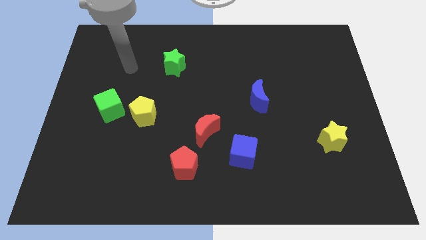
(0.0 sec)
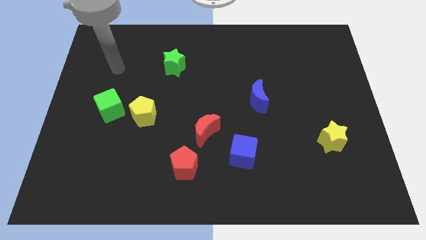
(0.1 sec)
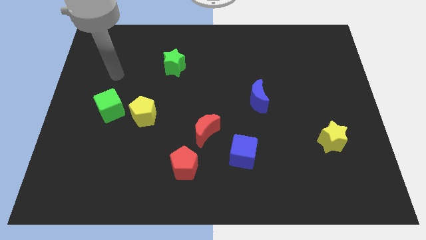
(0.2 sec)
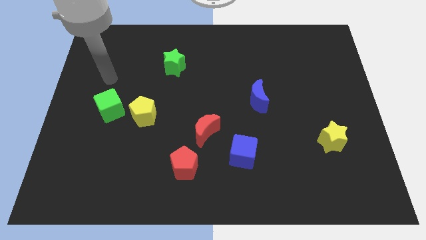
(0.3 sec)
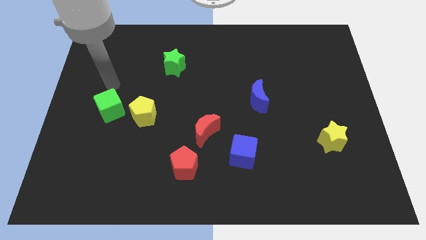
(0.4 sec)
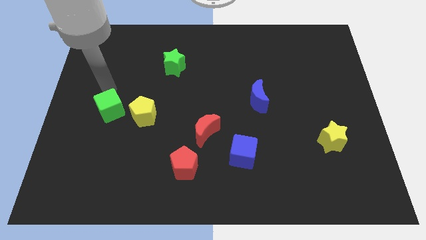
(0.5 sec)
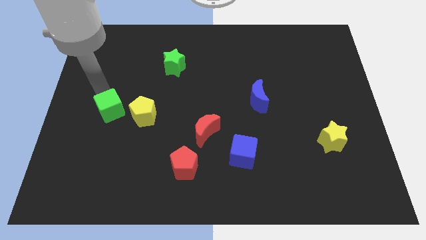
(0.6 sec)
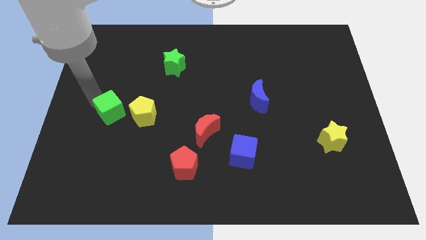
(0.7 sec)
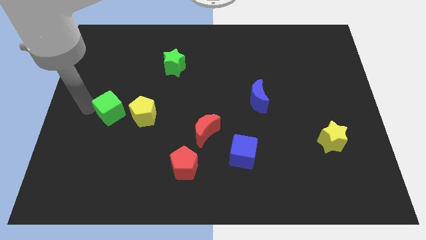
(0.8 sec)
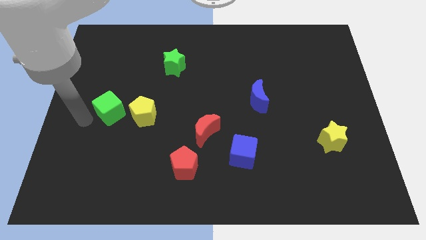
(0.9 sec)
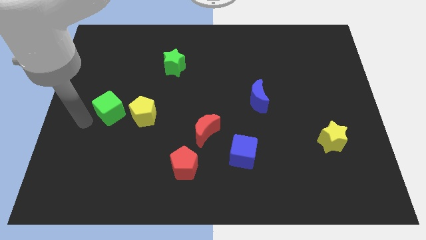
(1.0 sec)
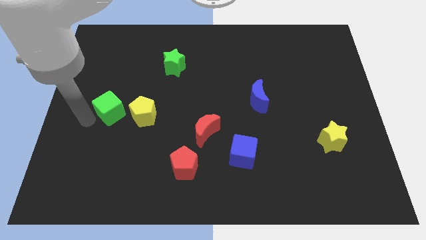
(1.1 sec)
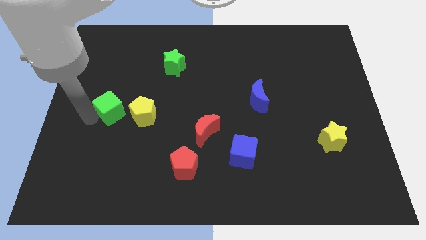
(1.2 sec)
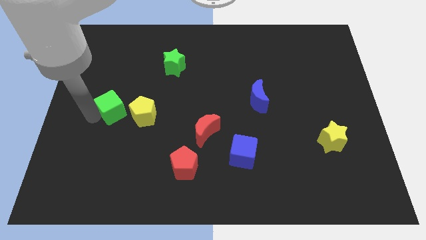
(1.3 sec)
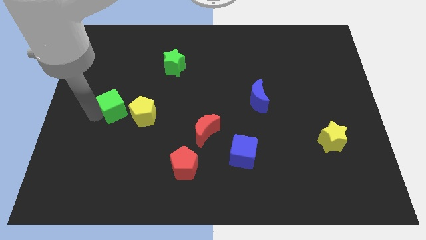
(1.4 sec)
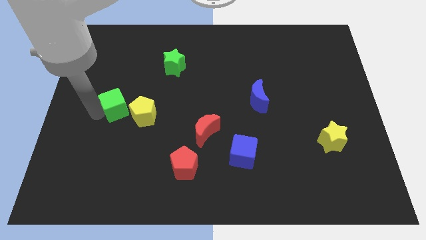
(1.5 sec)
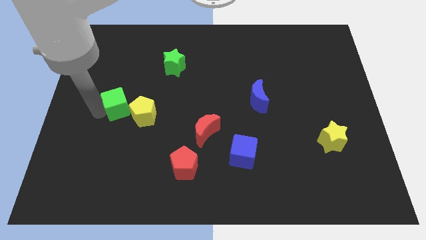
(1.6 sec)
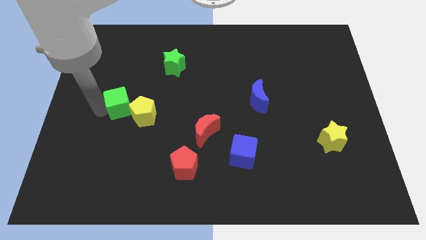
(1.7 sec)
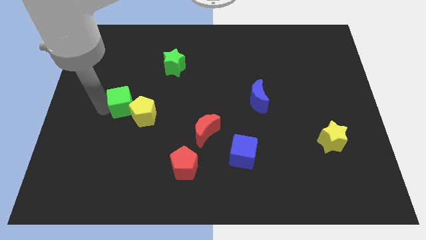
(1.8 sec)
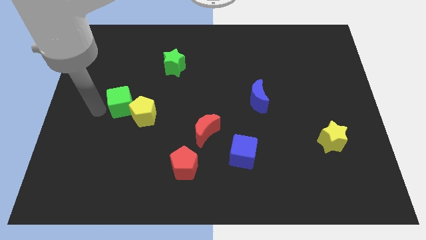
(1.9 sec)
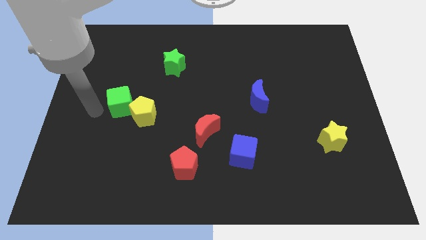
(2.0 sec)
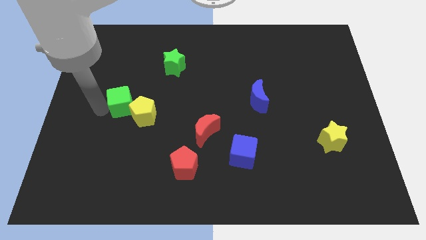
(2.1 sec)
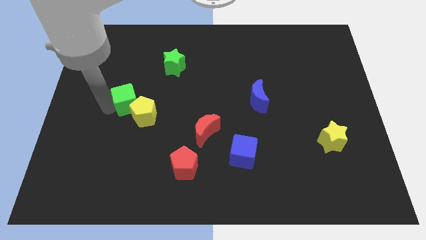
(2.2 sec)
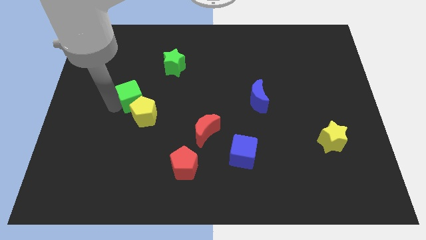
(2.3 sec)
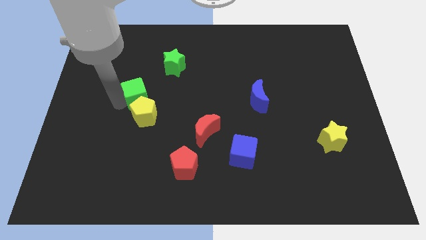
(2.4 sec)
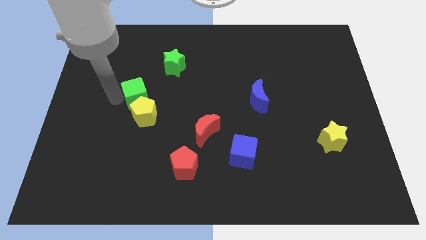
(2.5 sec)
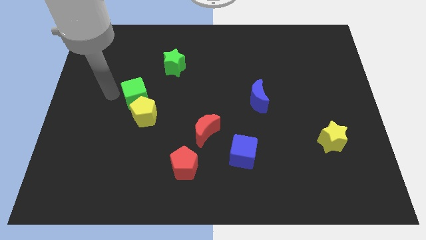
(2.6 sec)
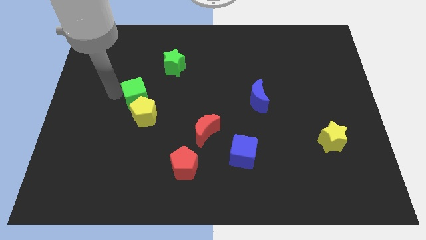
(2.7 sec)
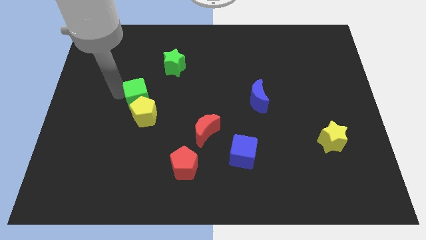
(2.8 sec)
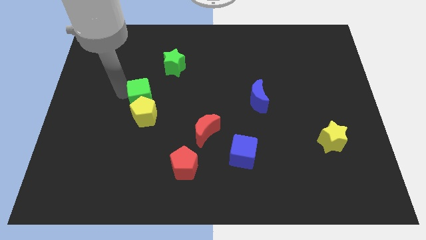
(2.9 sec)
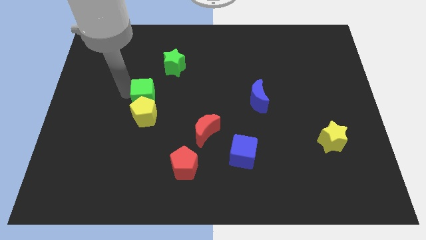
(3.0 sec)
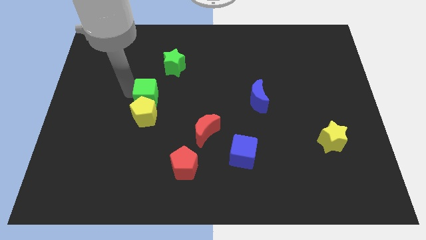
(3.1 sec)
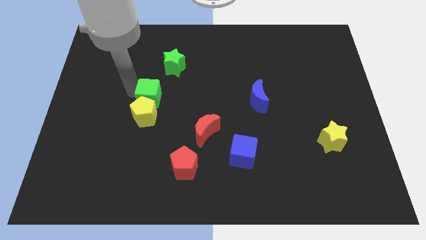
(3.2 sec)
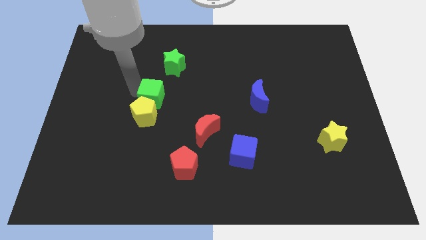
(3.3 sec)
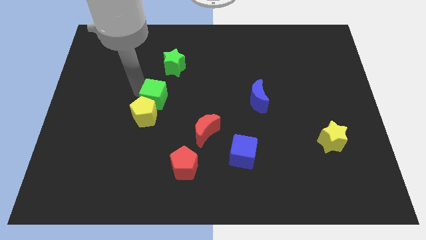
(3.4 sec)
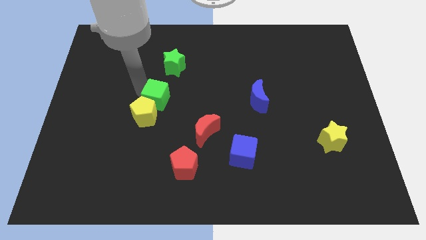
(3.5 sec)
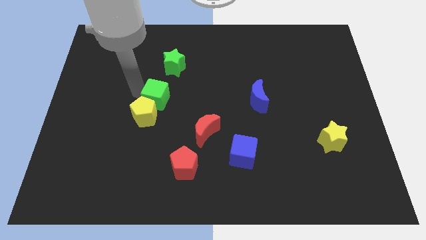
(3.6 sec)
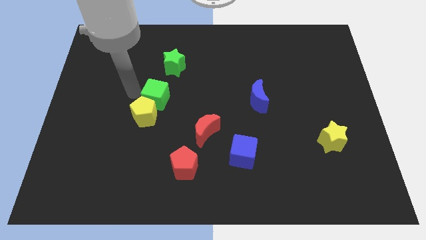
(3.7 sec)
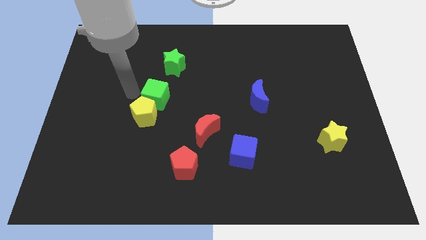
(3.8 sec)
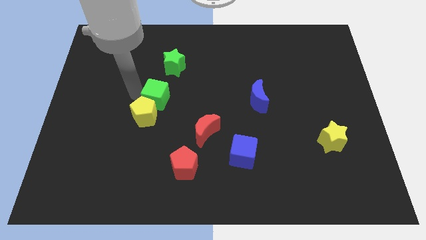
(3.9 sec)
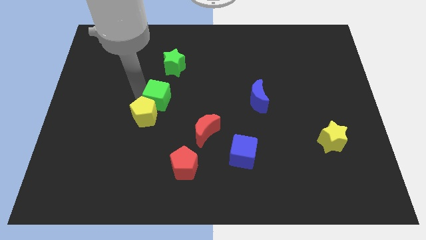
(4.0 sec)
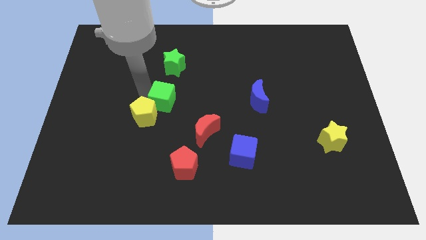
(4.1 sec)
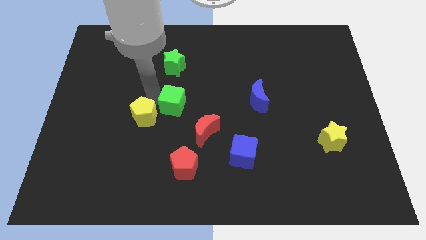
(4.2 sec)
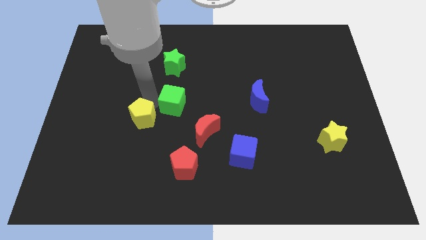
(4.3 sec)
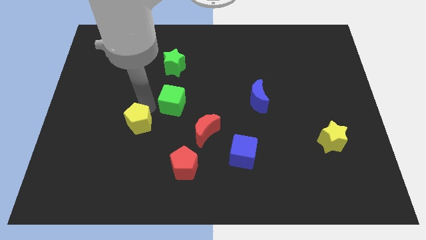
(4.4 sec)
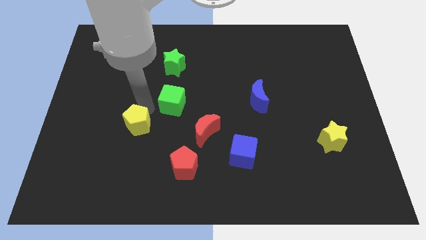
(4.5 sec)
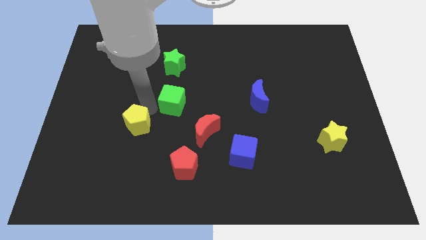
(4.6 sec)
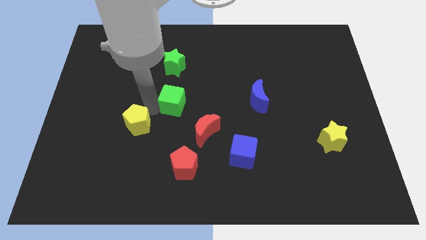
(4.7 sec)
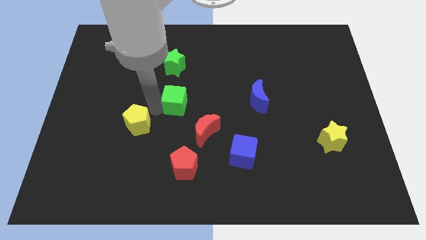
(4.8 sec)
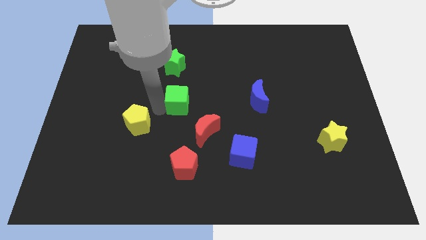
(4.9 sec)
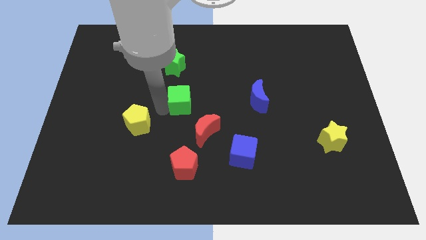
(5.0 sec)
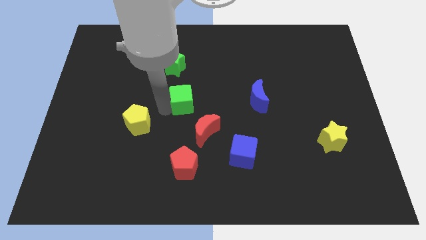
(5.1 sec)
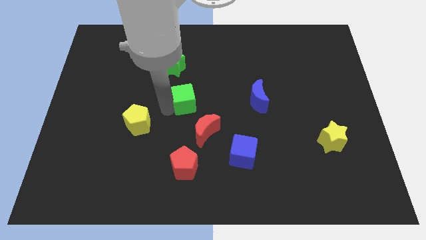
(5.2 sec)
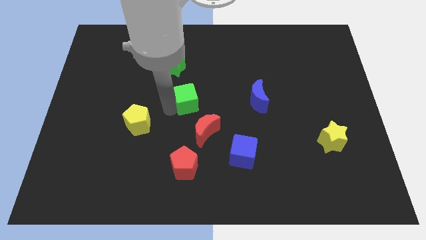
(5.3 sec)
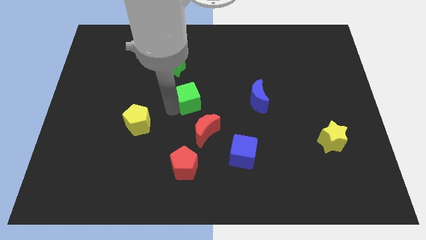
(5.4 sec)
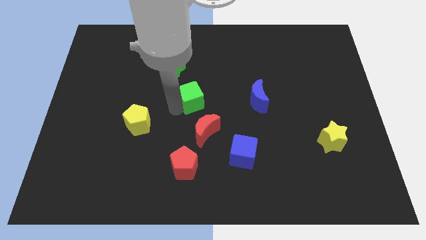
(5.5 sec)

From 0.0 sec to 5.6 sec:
put the green cube to the left side of the blue moon

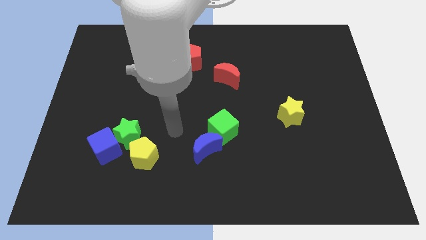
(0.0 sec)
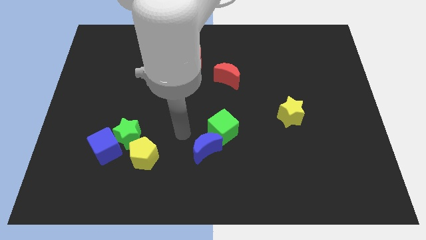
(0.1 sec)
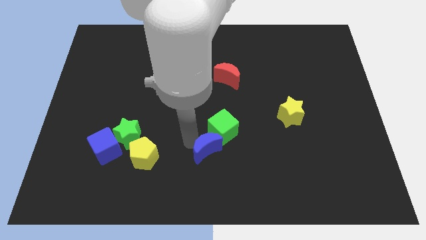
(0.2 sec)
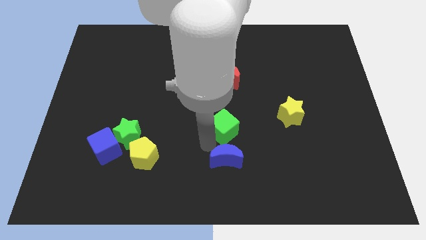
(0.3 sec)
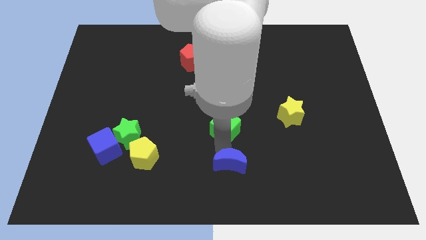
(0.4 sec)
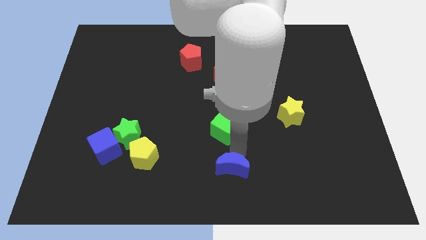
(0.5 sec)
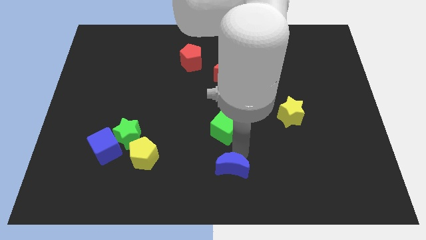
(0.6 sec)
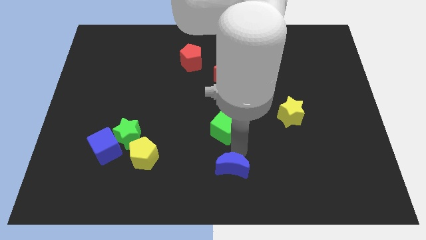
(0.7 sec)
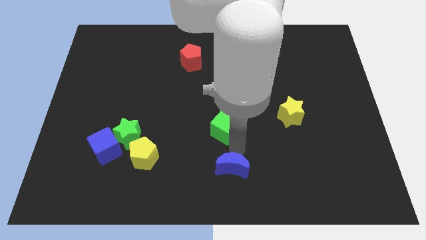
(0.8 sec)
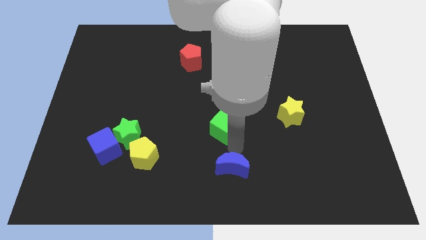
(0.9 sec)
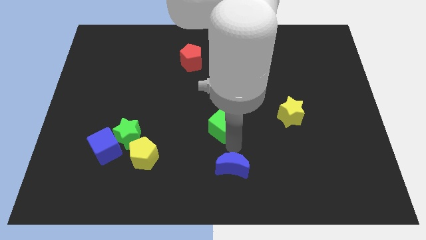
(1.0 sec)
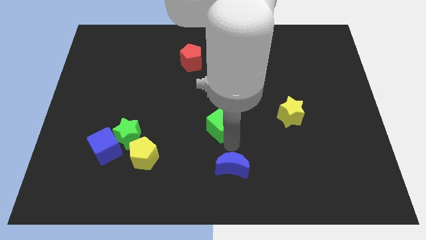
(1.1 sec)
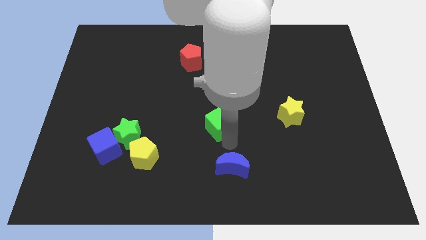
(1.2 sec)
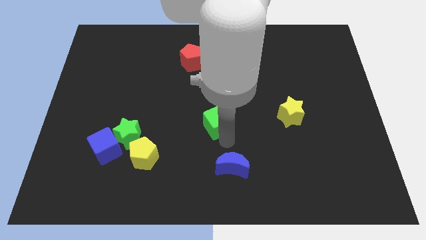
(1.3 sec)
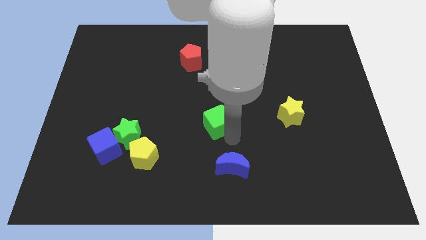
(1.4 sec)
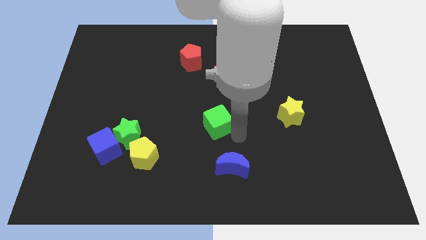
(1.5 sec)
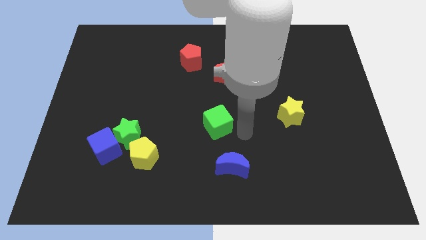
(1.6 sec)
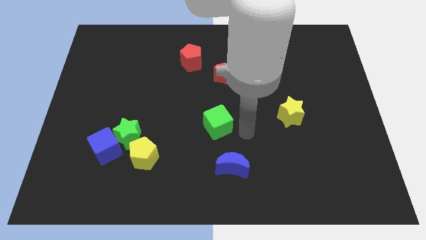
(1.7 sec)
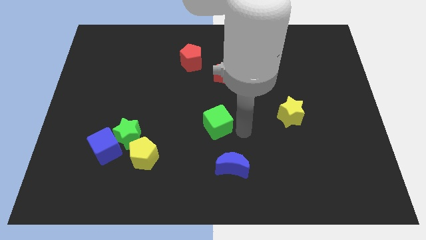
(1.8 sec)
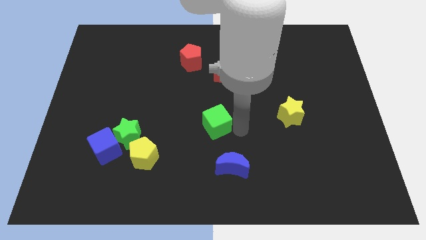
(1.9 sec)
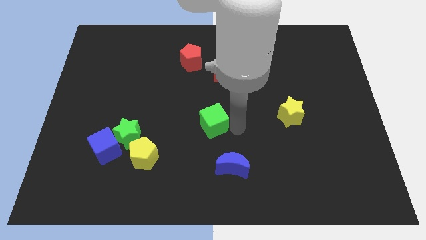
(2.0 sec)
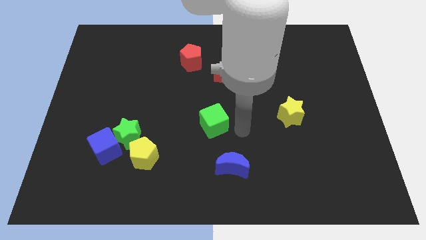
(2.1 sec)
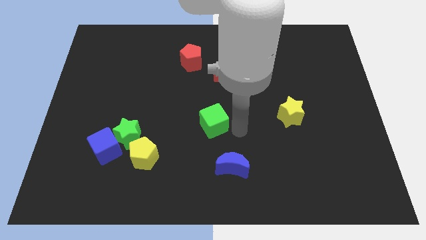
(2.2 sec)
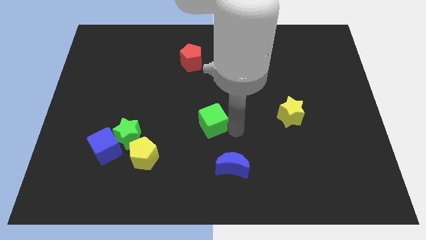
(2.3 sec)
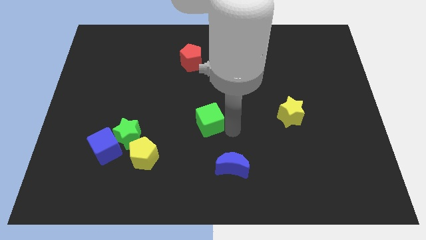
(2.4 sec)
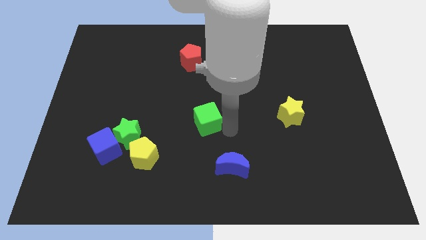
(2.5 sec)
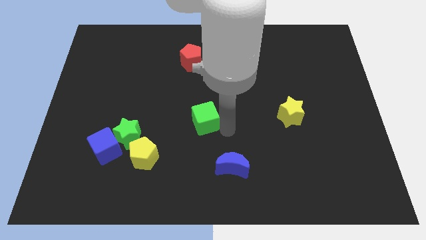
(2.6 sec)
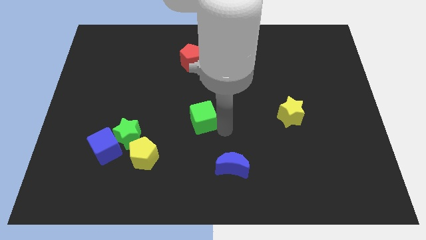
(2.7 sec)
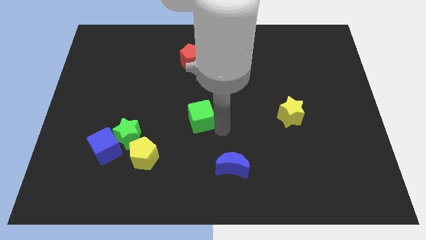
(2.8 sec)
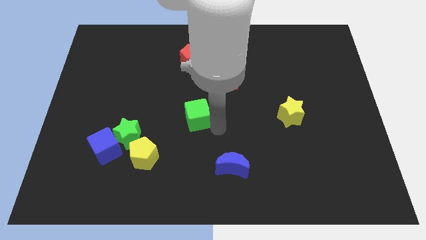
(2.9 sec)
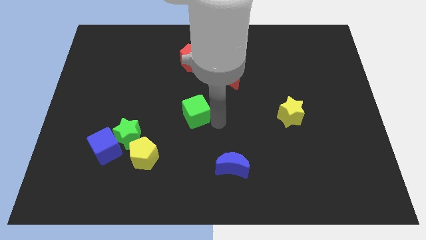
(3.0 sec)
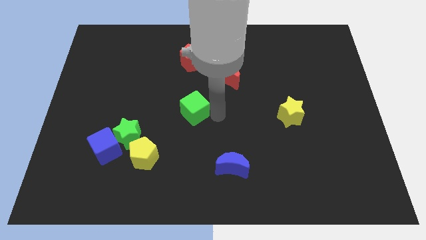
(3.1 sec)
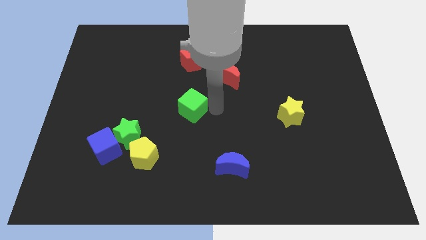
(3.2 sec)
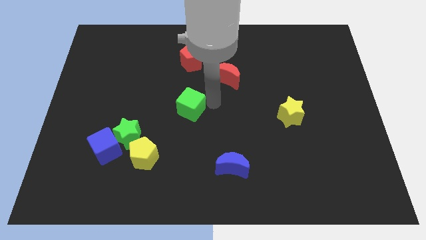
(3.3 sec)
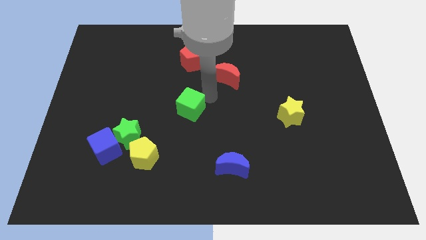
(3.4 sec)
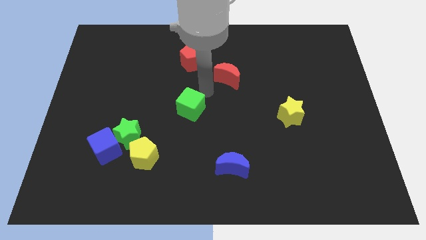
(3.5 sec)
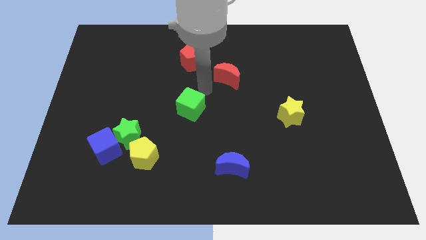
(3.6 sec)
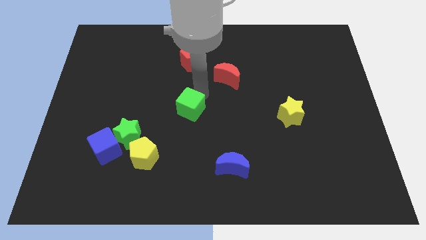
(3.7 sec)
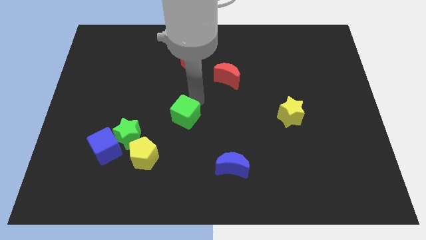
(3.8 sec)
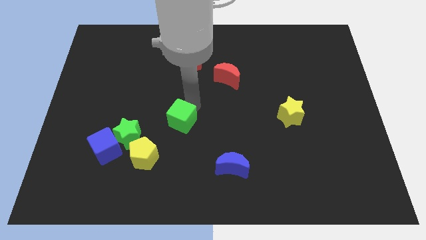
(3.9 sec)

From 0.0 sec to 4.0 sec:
push the green cube to the top right side of the yellow pentagon
